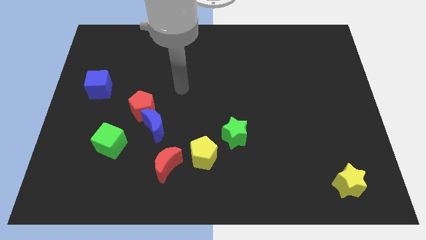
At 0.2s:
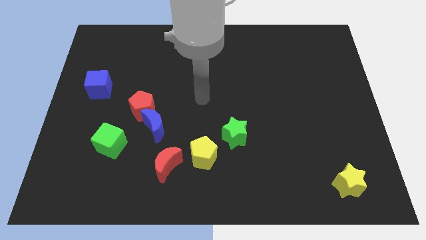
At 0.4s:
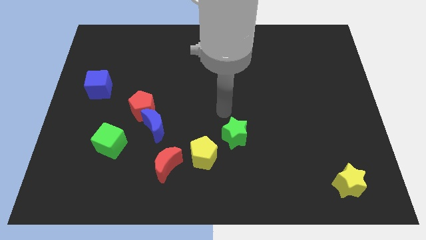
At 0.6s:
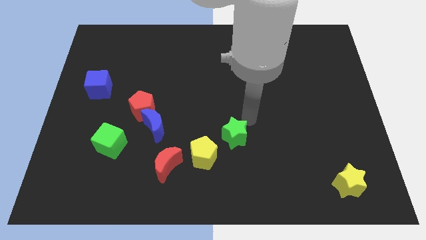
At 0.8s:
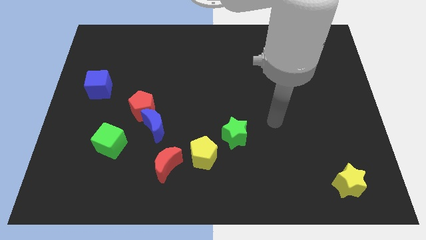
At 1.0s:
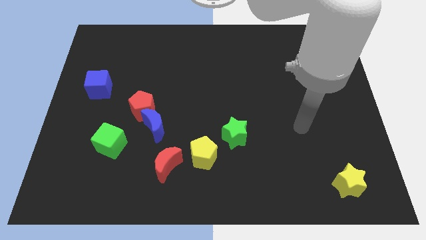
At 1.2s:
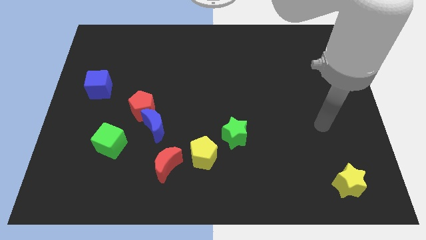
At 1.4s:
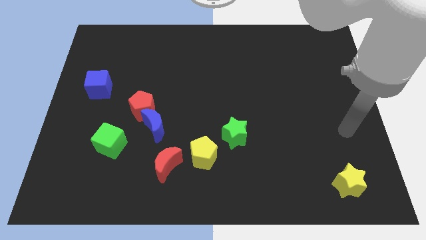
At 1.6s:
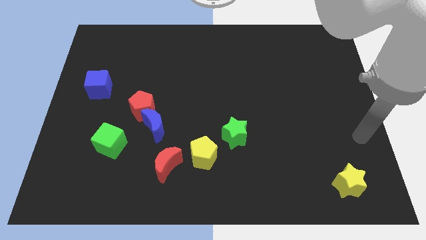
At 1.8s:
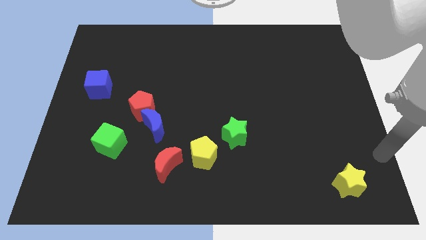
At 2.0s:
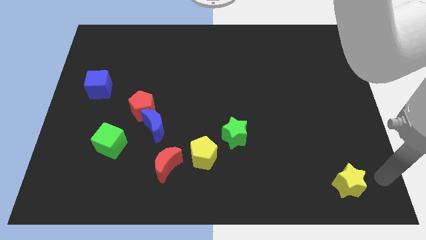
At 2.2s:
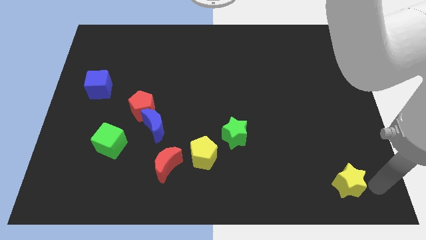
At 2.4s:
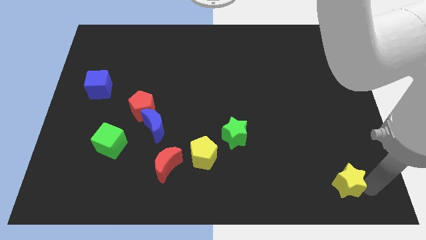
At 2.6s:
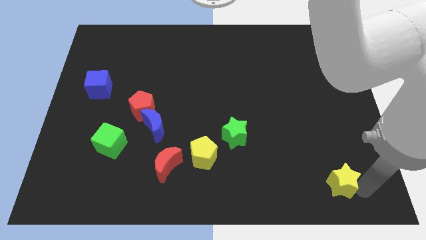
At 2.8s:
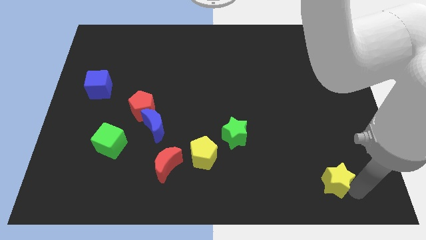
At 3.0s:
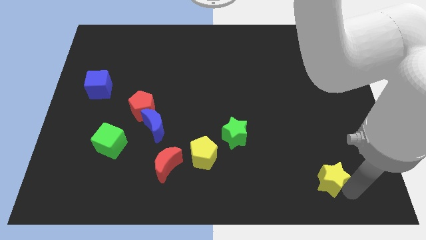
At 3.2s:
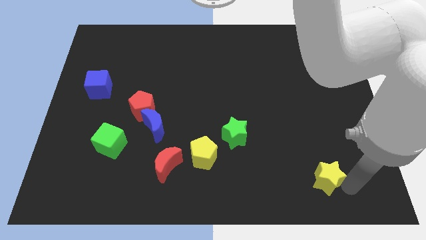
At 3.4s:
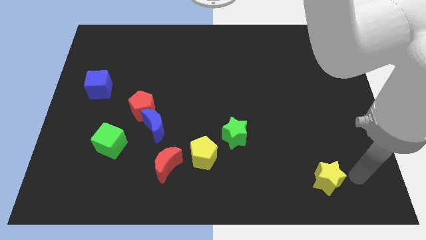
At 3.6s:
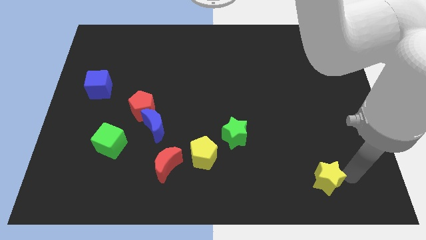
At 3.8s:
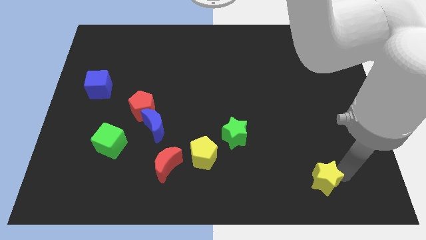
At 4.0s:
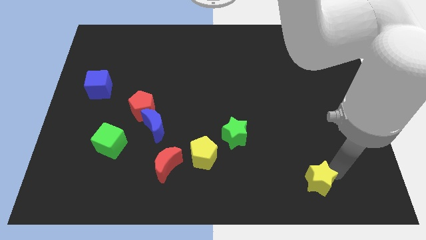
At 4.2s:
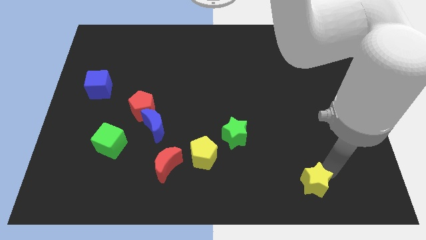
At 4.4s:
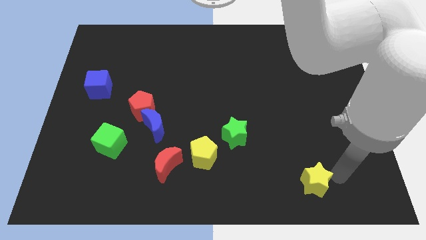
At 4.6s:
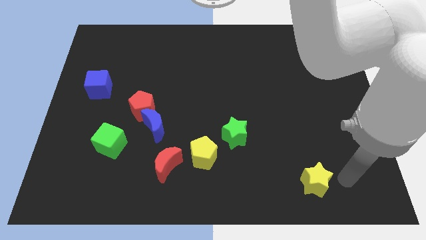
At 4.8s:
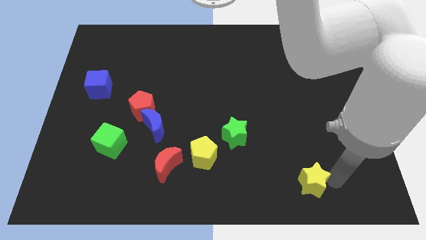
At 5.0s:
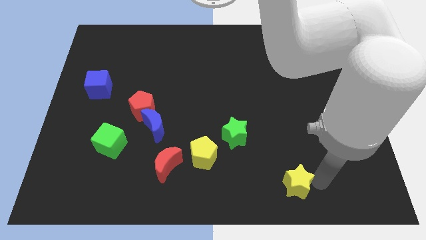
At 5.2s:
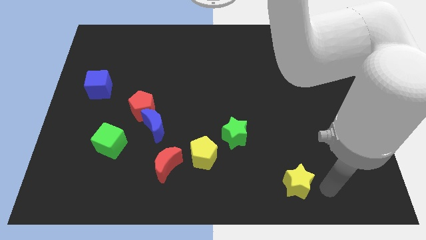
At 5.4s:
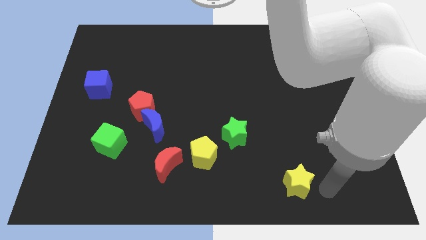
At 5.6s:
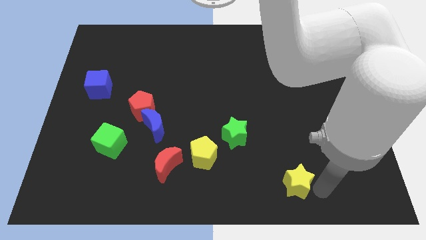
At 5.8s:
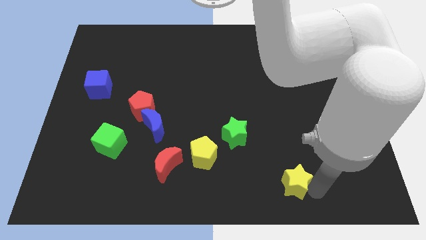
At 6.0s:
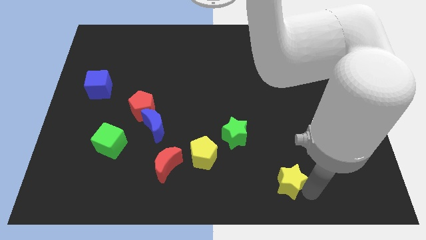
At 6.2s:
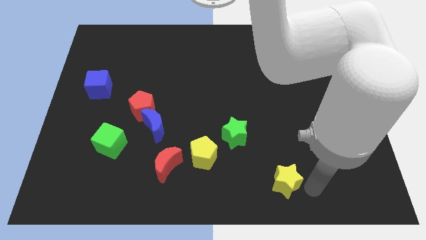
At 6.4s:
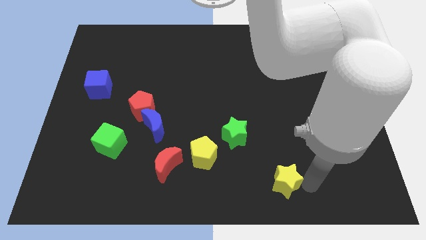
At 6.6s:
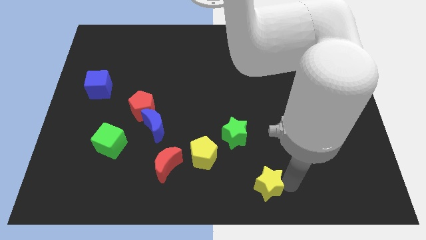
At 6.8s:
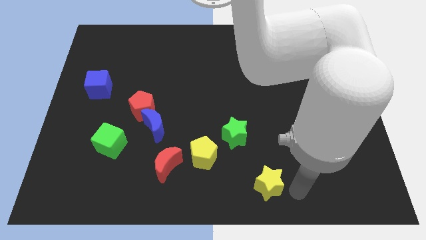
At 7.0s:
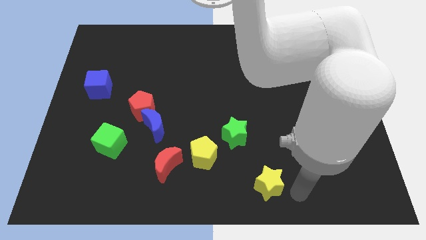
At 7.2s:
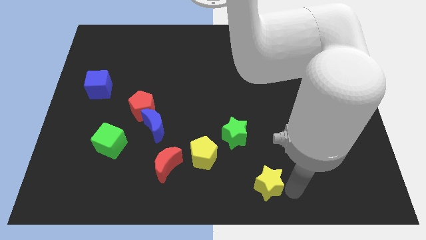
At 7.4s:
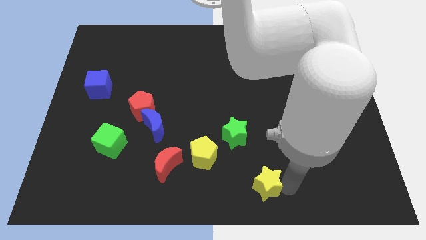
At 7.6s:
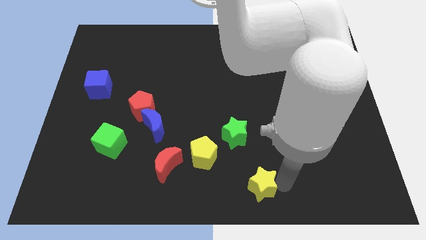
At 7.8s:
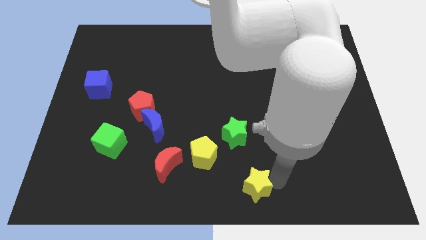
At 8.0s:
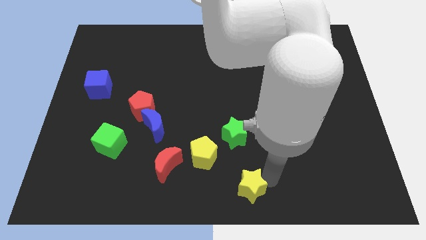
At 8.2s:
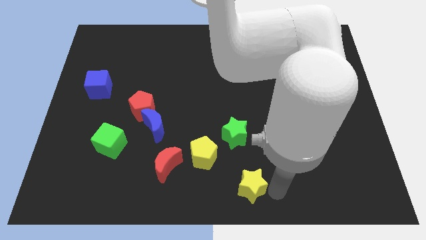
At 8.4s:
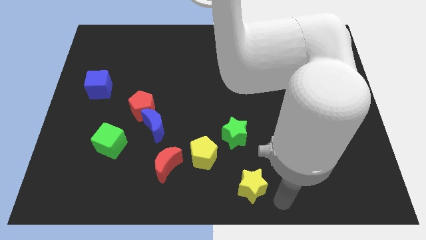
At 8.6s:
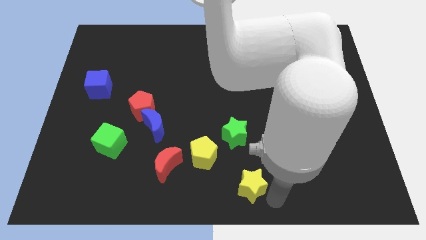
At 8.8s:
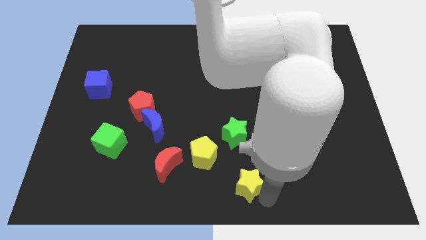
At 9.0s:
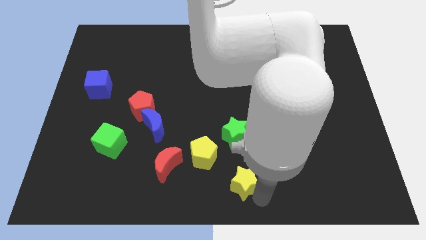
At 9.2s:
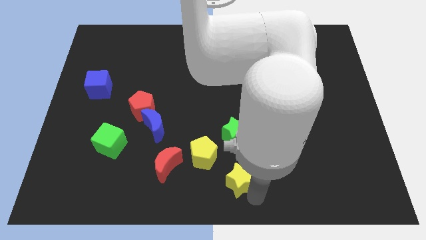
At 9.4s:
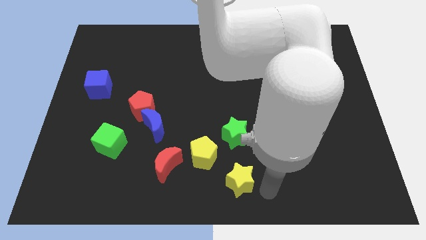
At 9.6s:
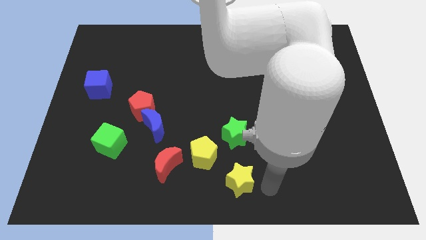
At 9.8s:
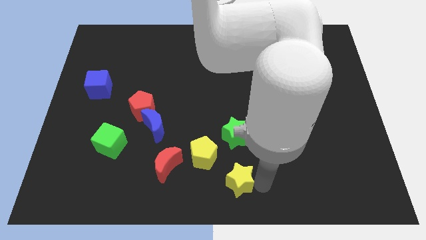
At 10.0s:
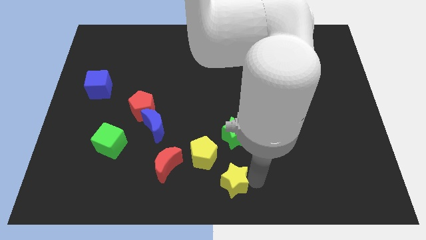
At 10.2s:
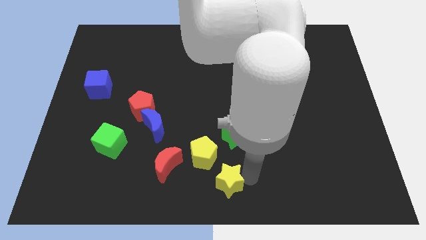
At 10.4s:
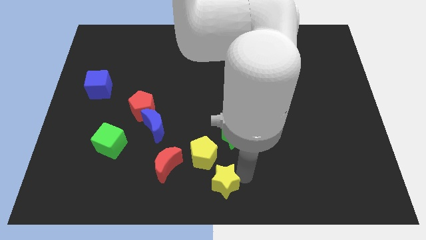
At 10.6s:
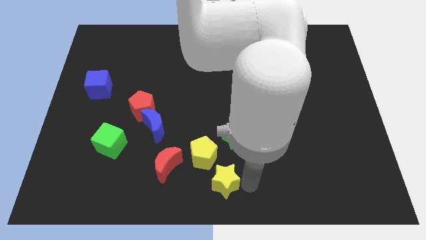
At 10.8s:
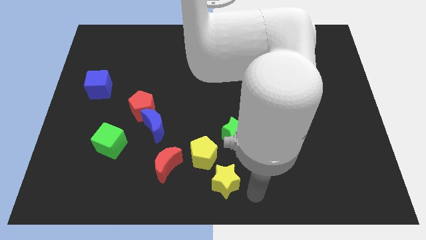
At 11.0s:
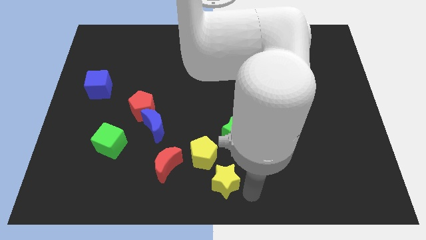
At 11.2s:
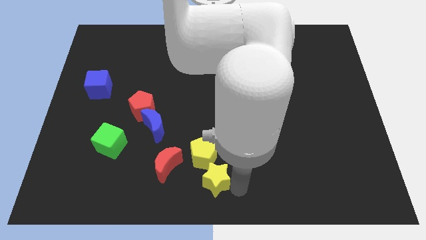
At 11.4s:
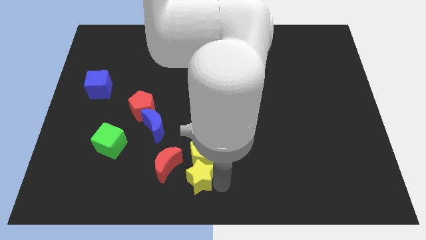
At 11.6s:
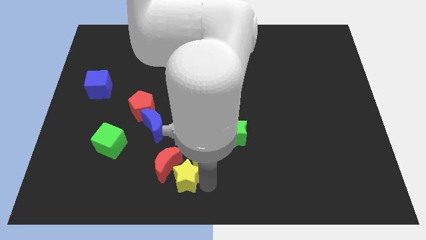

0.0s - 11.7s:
push the yellow star close to the red moon

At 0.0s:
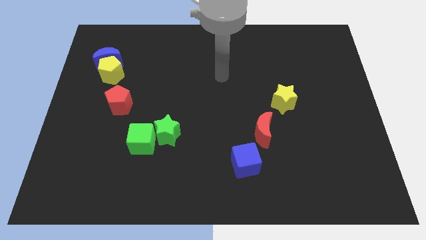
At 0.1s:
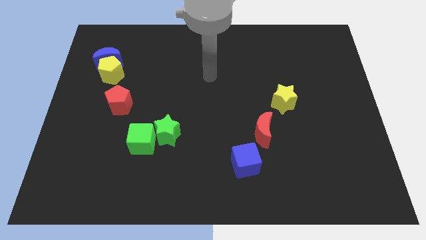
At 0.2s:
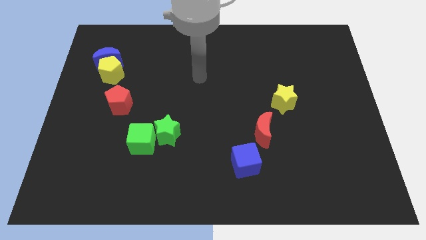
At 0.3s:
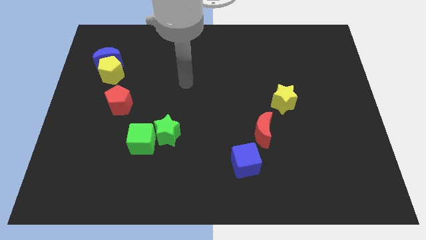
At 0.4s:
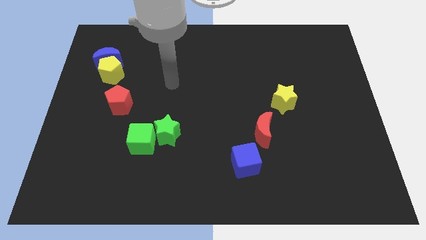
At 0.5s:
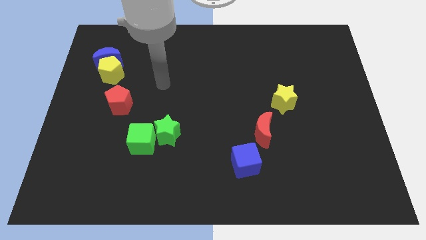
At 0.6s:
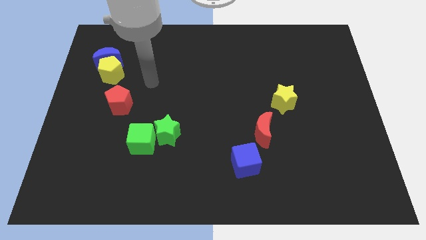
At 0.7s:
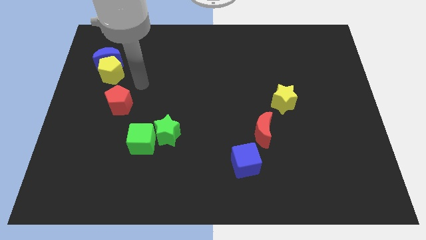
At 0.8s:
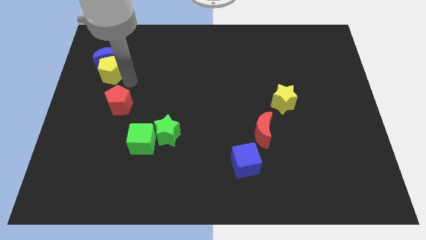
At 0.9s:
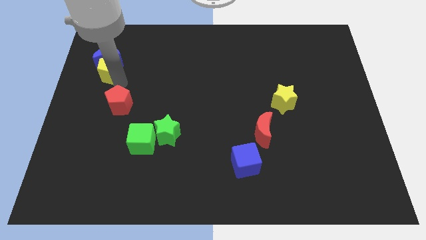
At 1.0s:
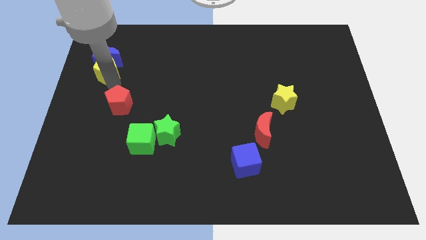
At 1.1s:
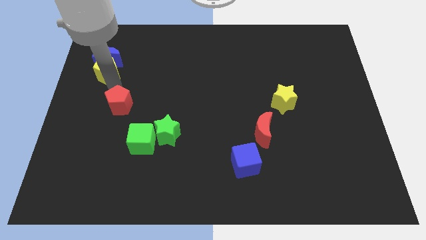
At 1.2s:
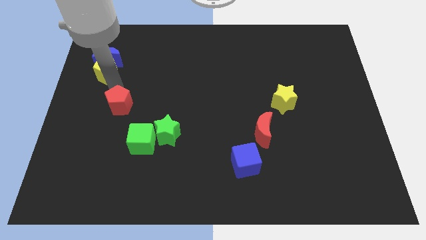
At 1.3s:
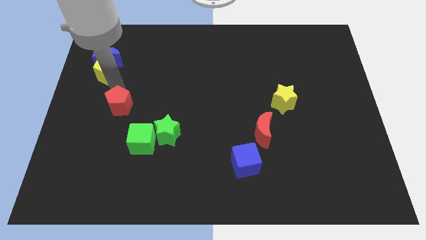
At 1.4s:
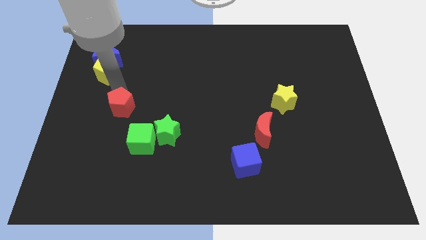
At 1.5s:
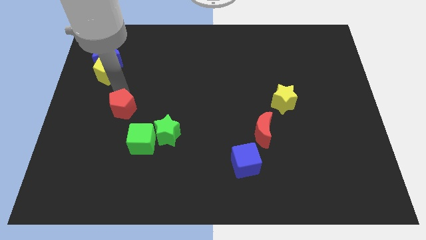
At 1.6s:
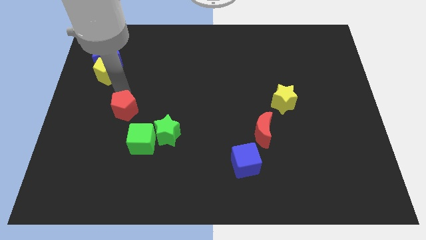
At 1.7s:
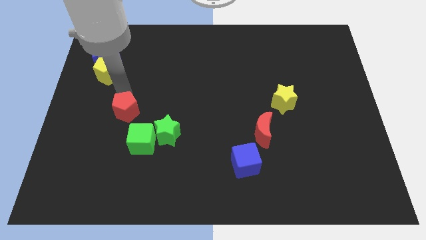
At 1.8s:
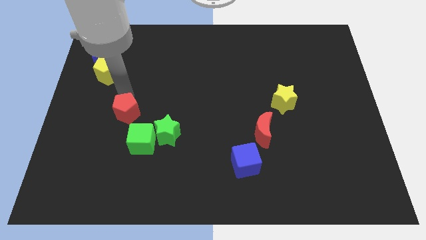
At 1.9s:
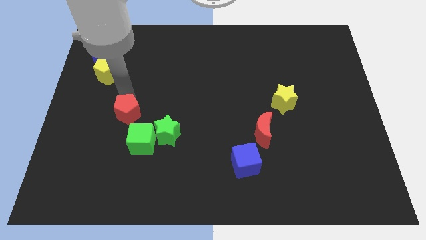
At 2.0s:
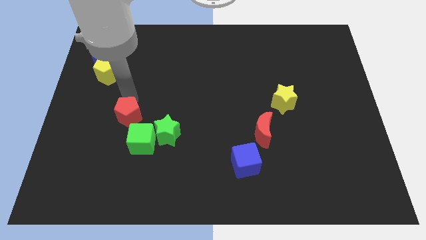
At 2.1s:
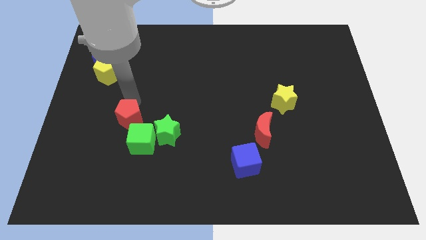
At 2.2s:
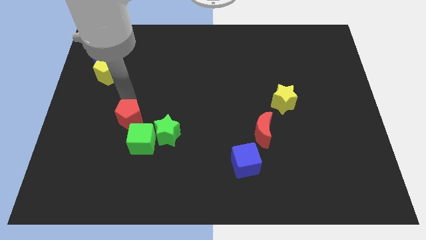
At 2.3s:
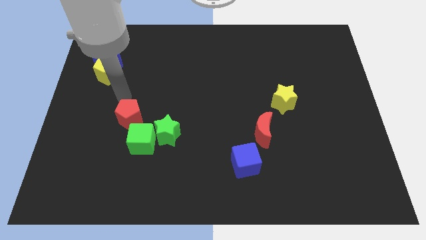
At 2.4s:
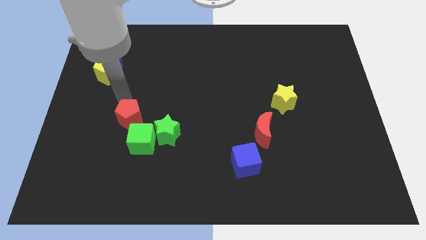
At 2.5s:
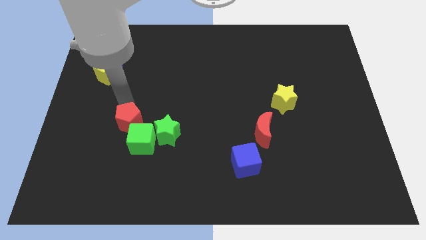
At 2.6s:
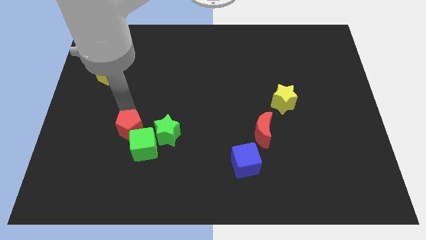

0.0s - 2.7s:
move the red pentagon close to the green cube
